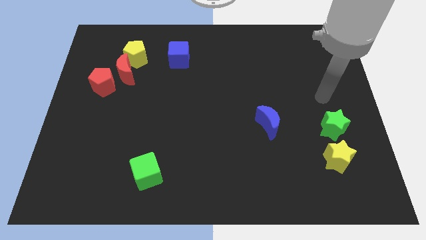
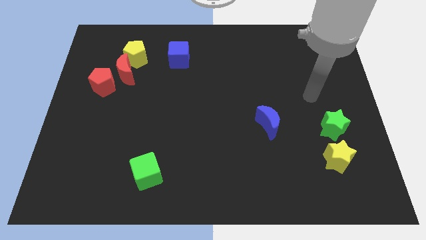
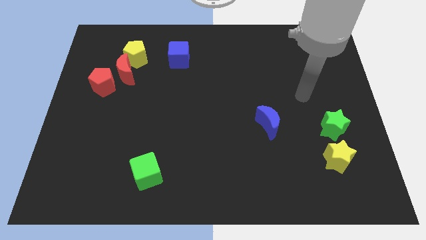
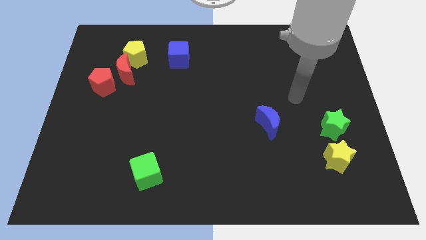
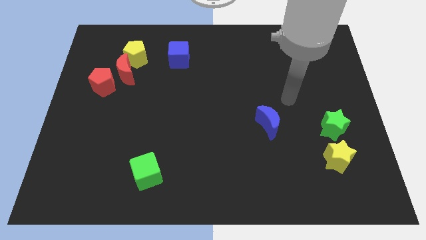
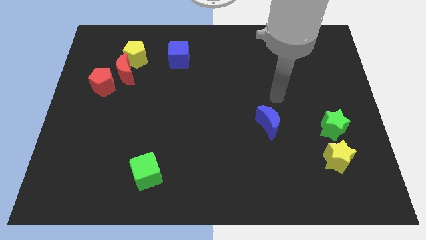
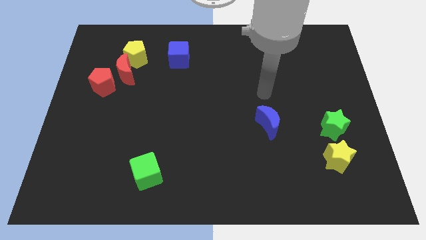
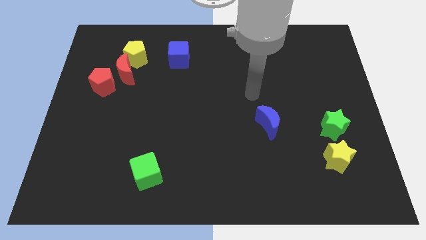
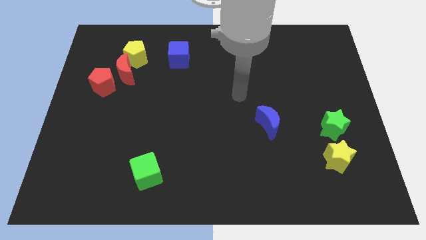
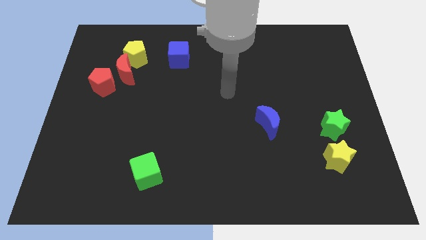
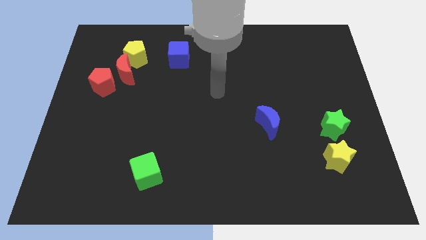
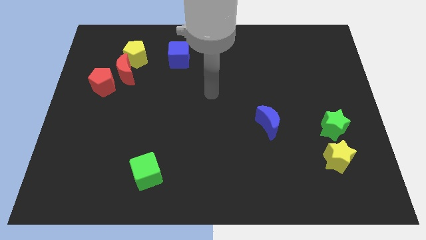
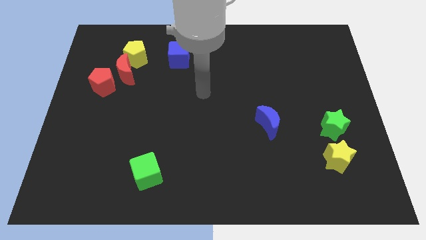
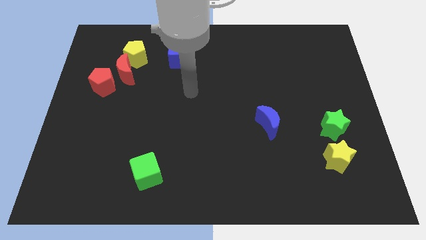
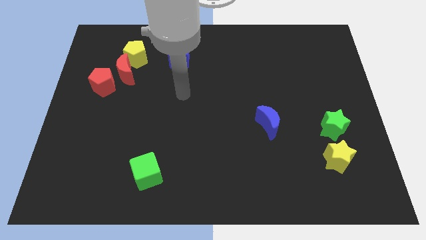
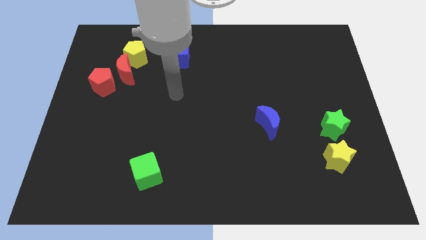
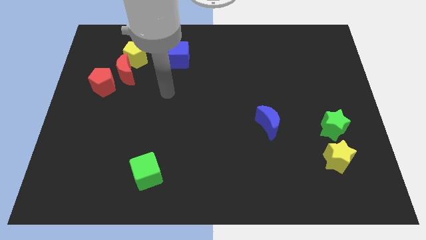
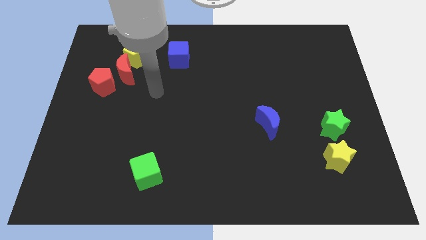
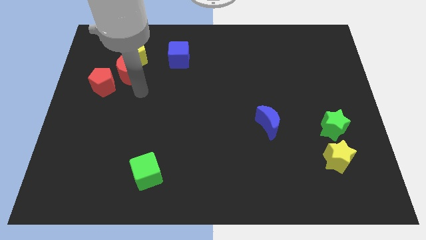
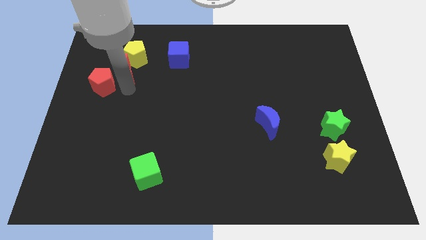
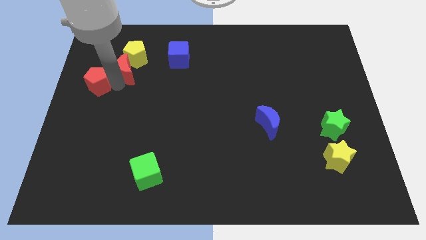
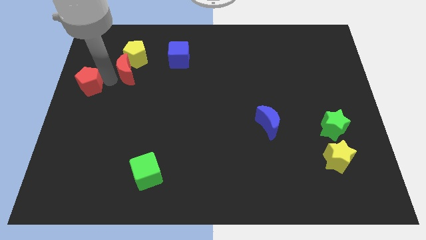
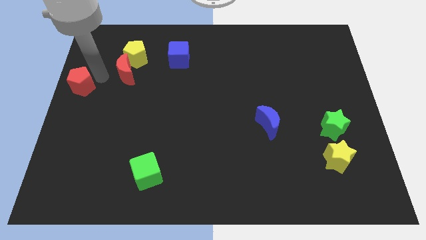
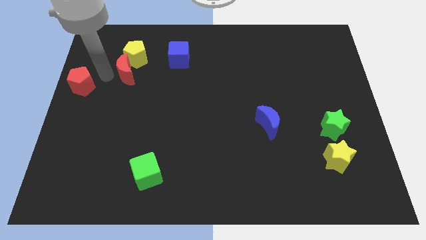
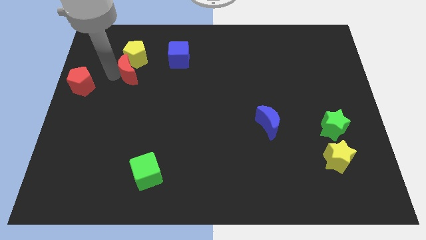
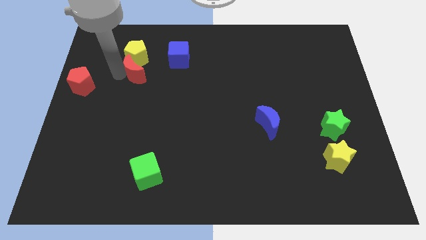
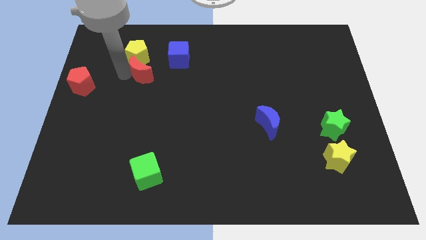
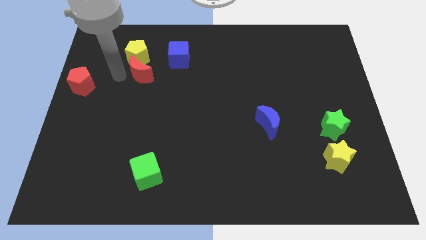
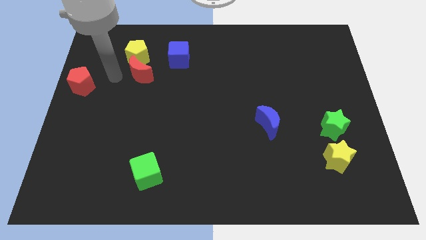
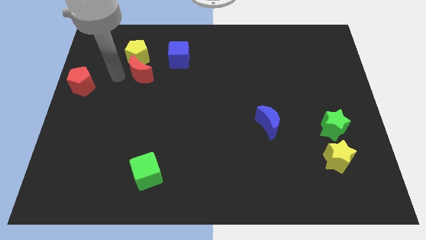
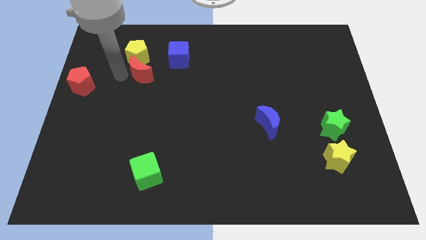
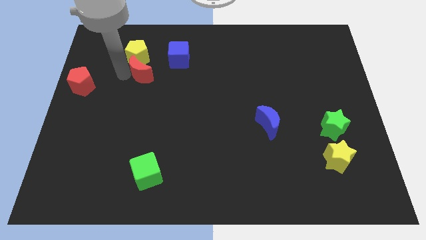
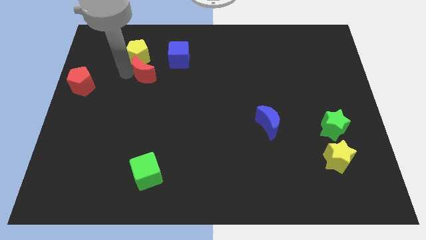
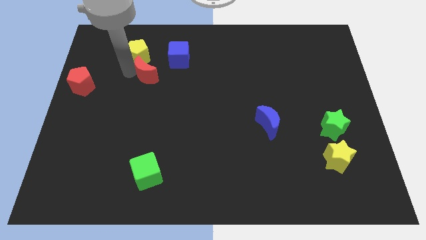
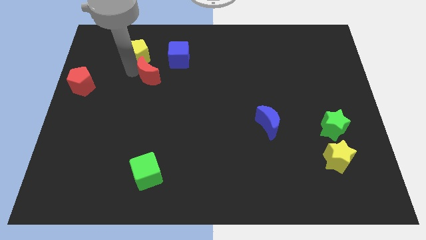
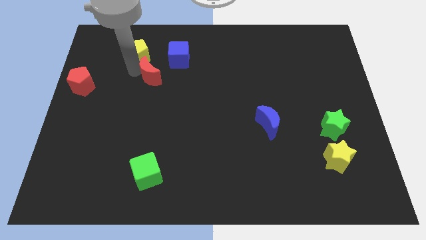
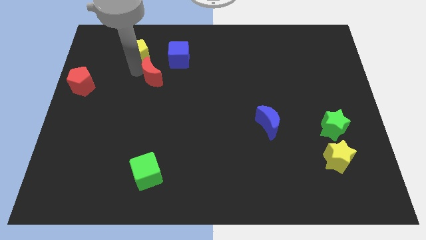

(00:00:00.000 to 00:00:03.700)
push the red moon slightly right

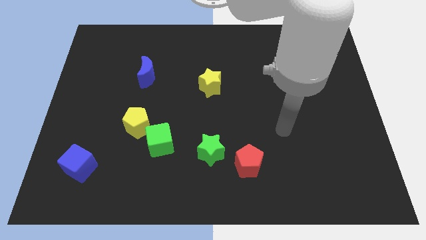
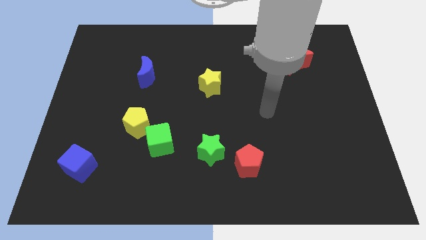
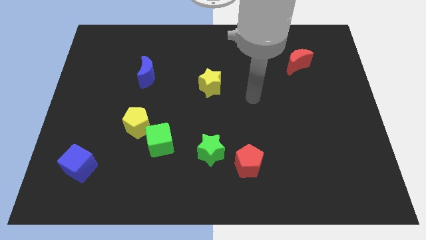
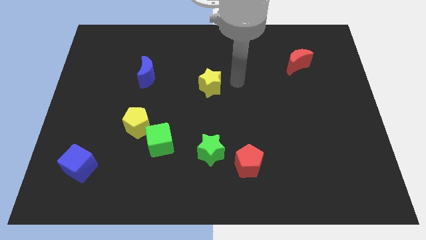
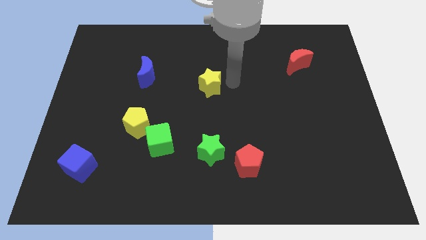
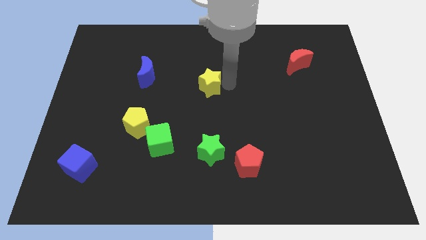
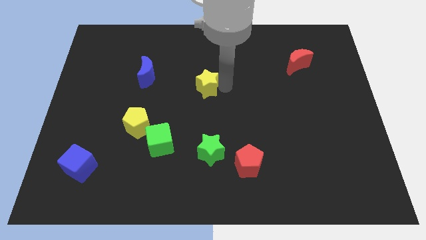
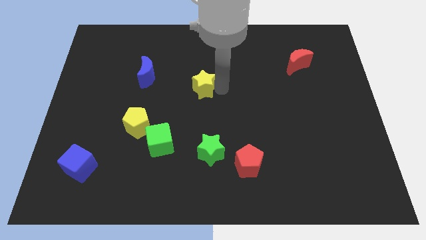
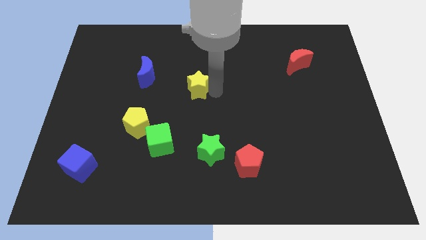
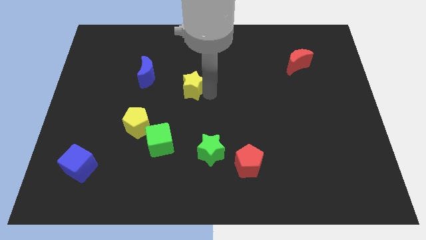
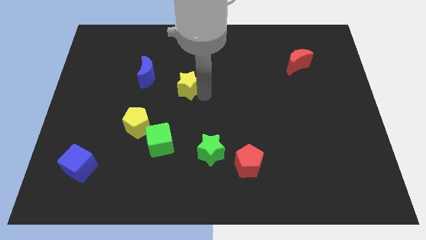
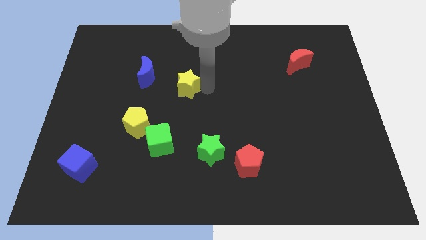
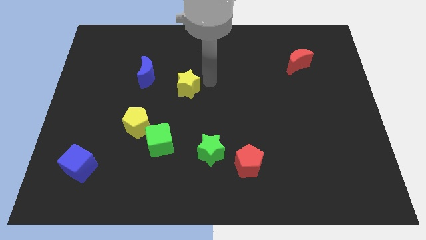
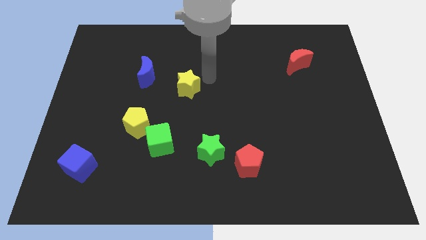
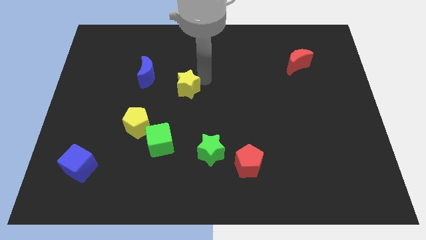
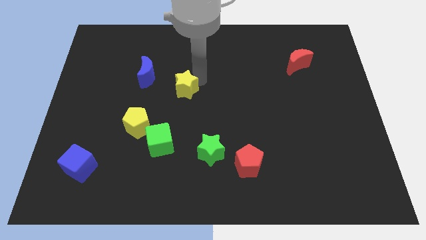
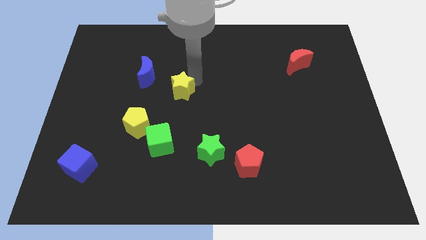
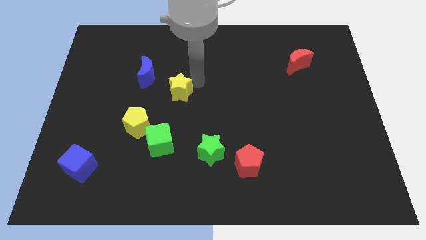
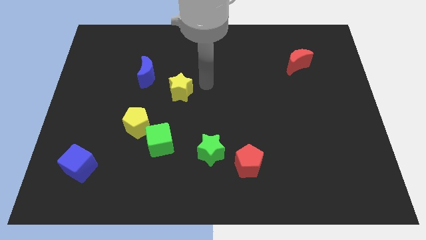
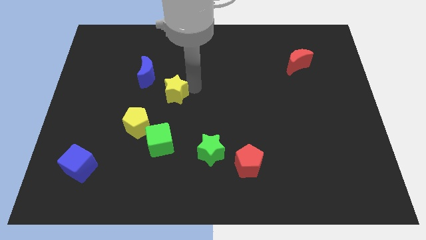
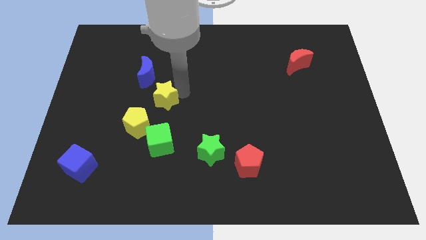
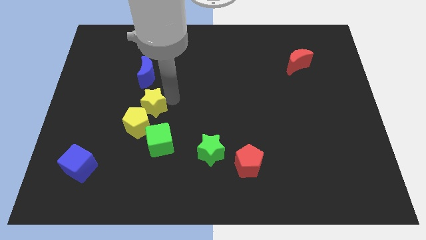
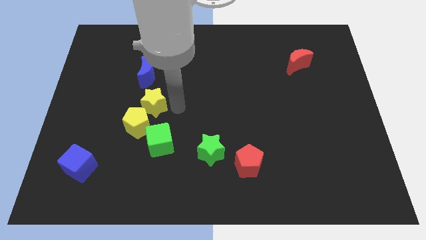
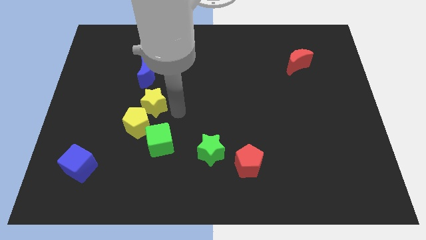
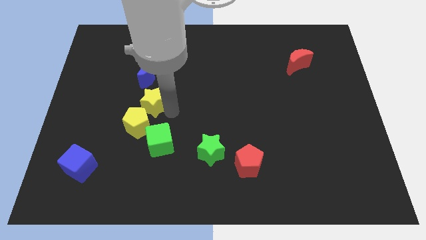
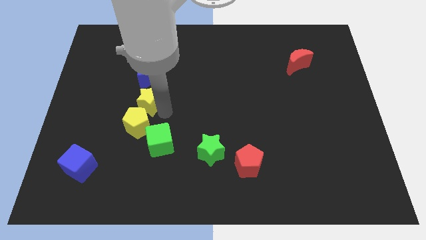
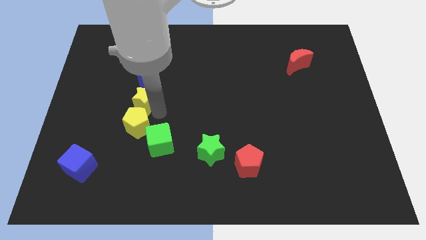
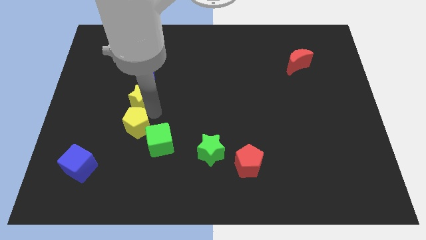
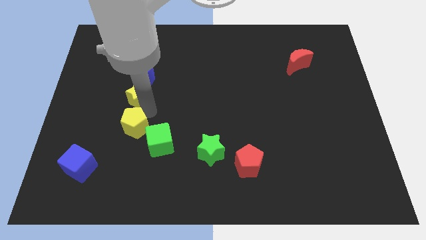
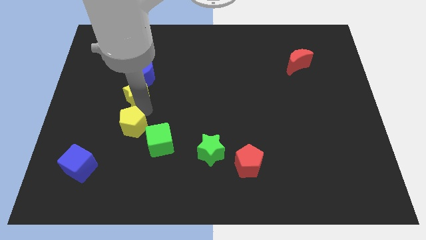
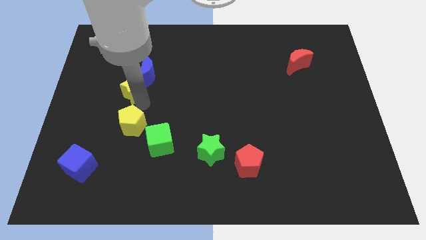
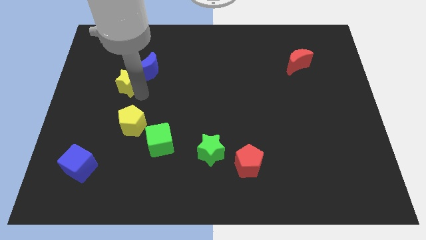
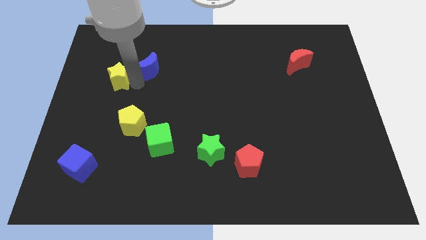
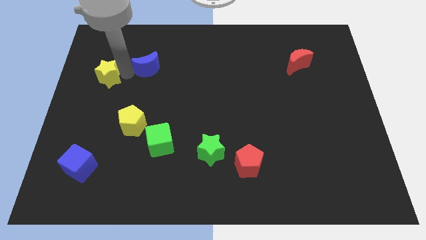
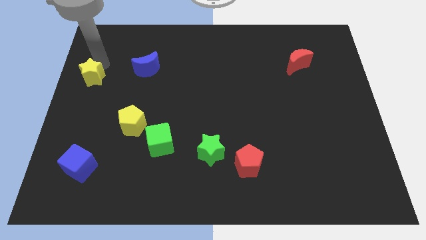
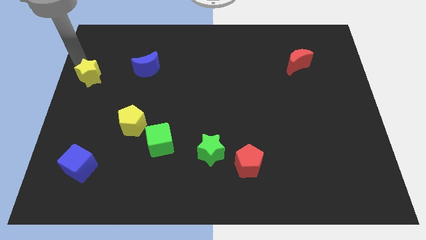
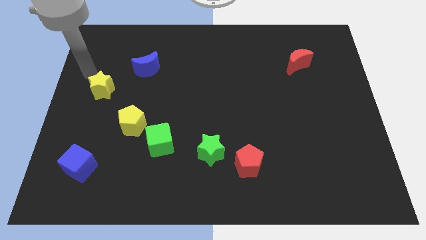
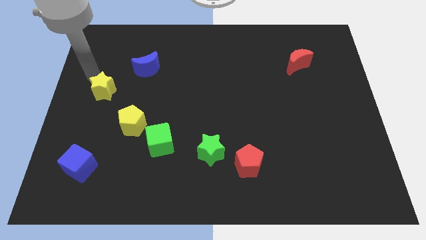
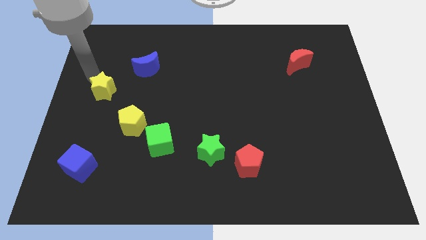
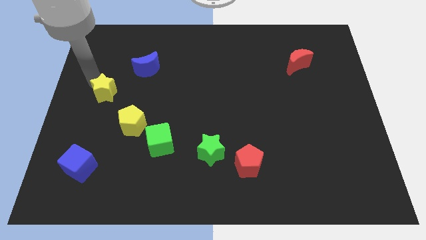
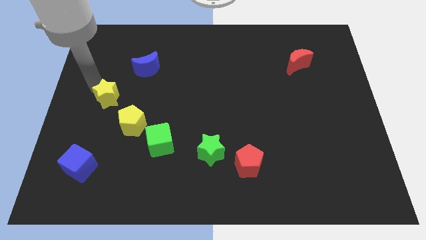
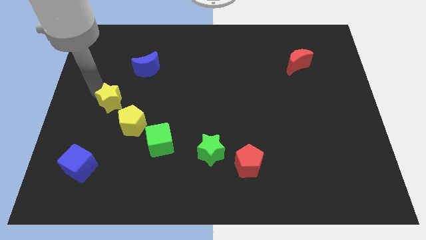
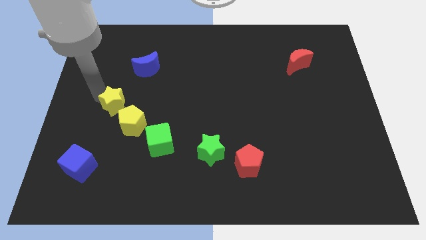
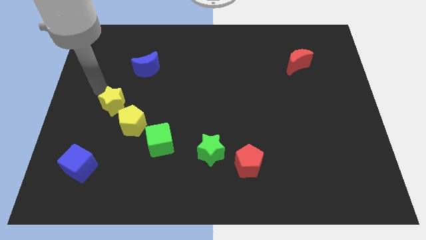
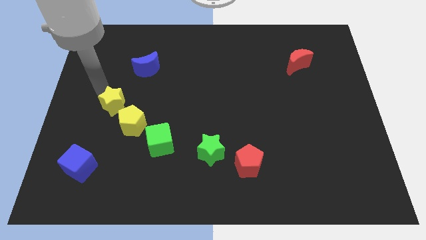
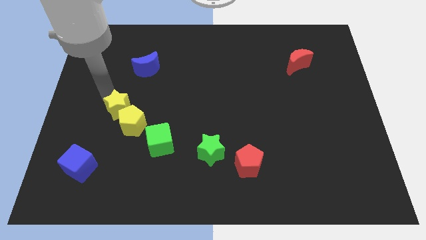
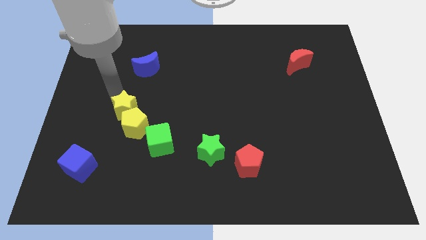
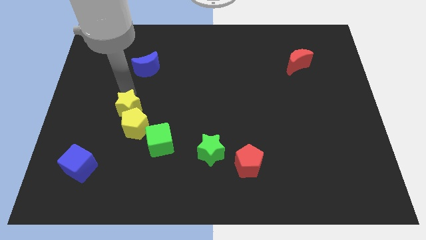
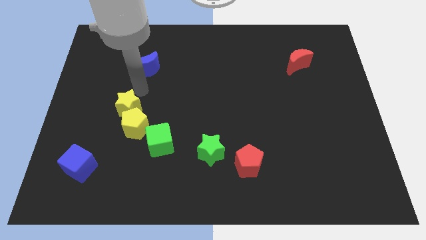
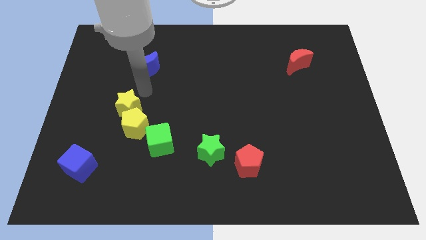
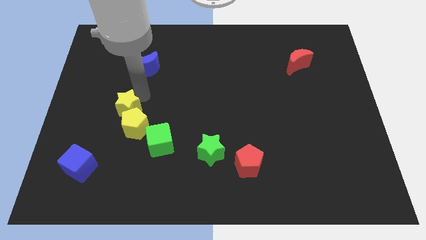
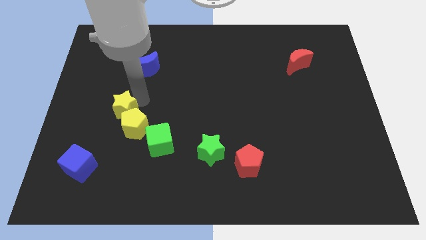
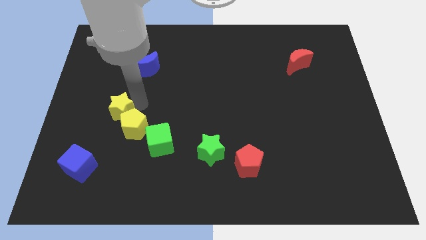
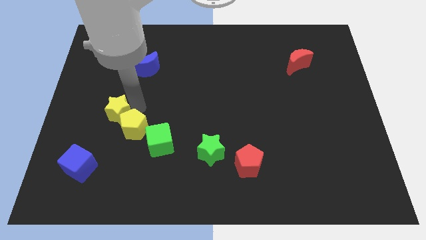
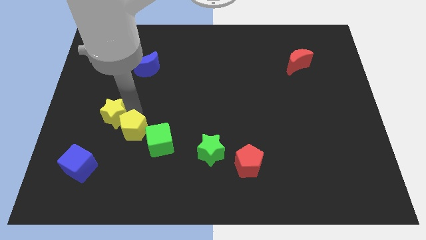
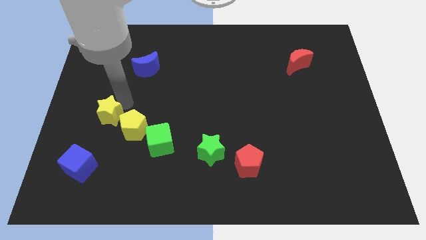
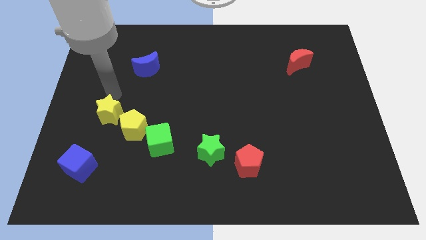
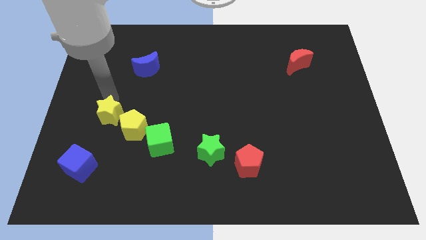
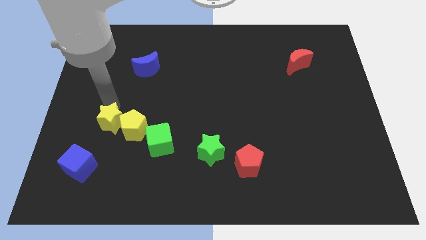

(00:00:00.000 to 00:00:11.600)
push the yellow star diagonally down and left
